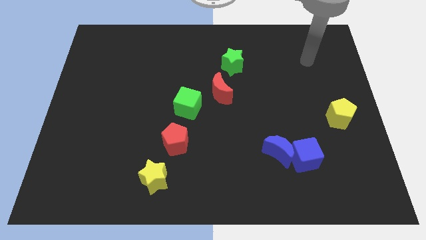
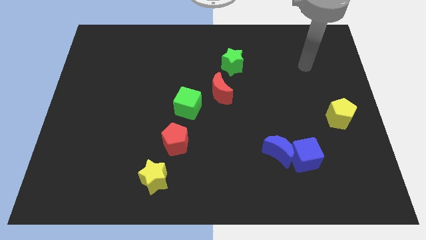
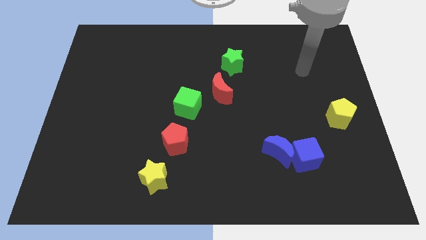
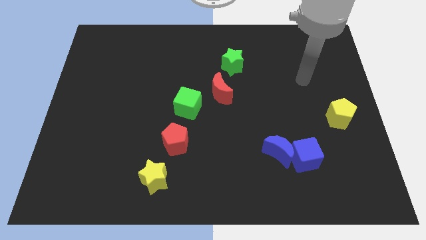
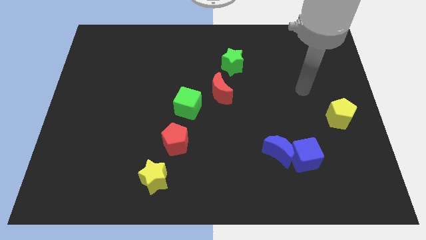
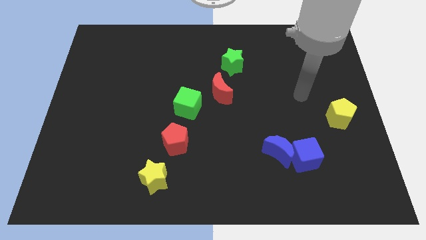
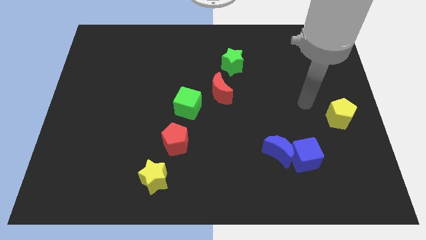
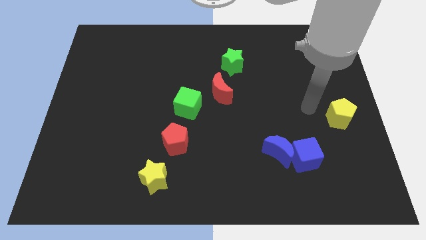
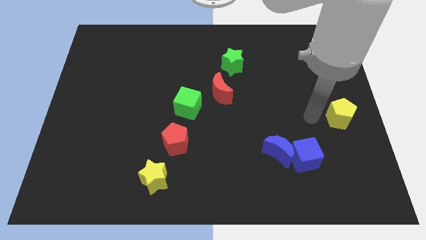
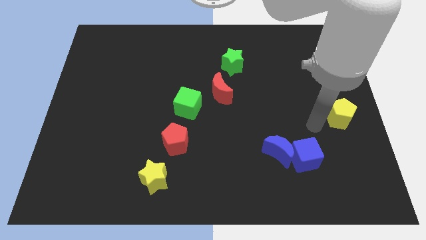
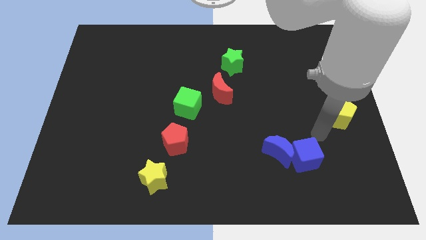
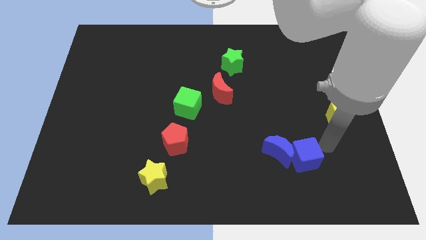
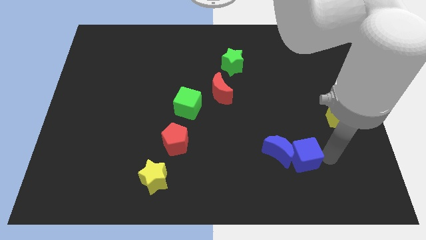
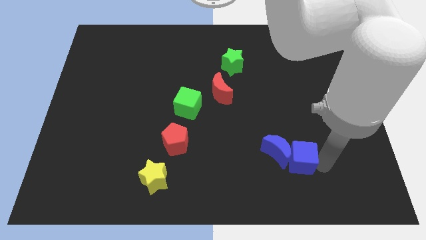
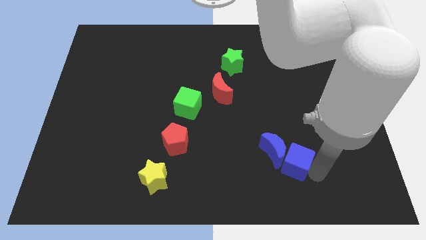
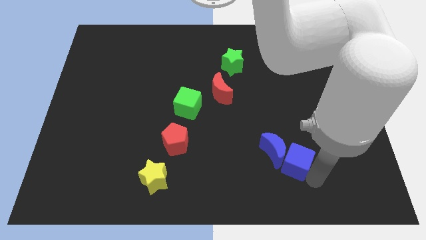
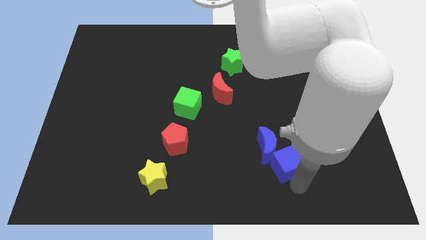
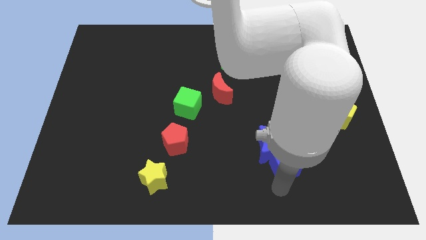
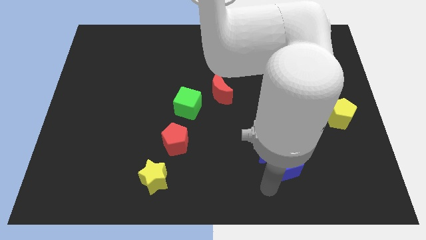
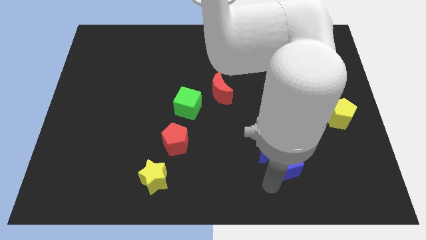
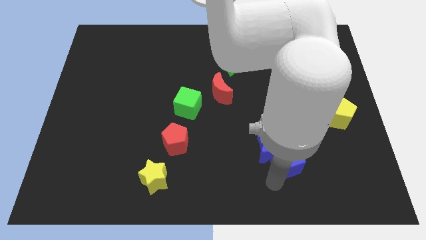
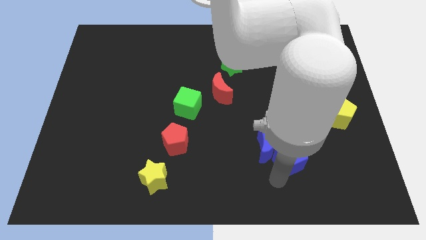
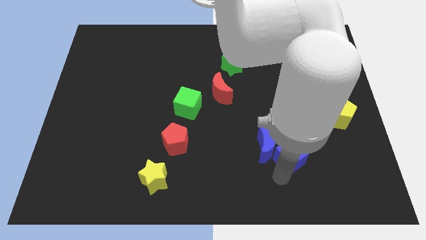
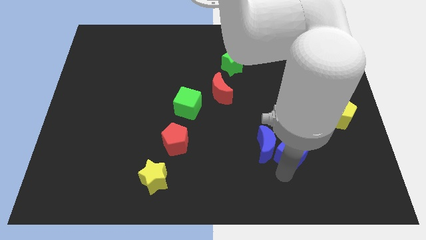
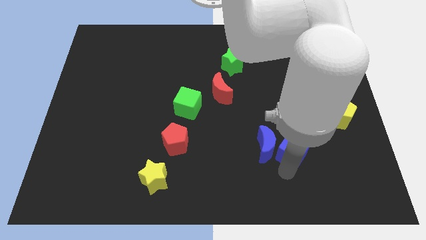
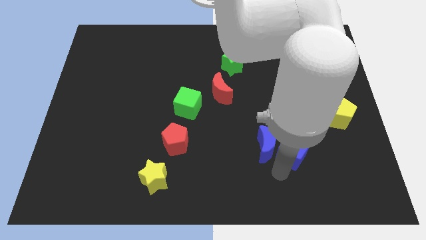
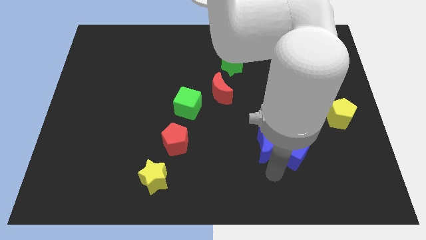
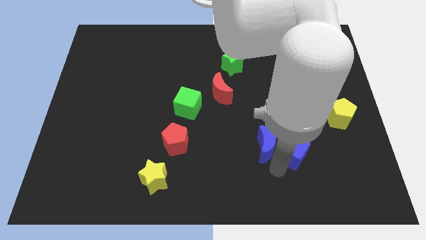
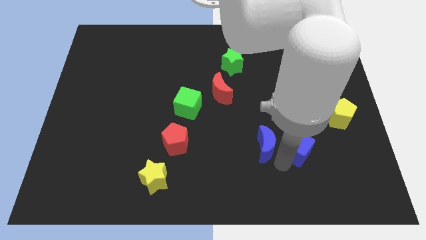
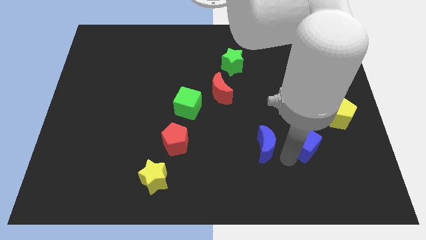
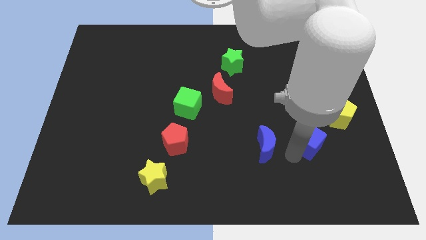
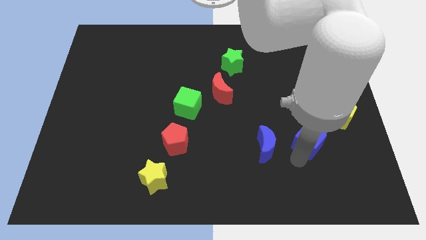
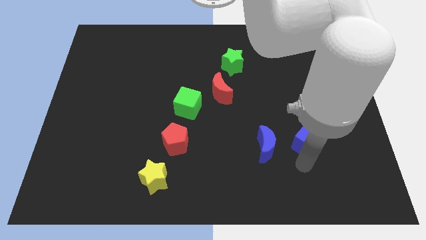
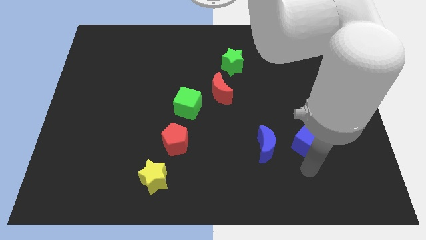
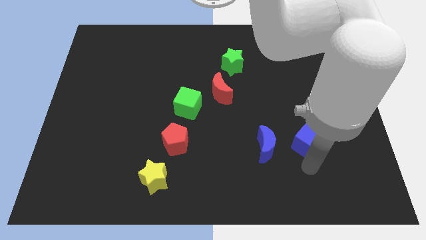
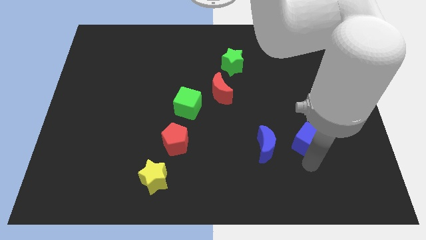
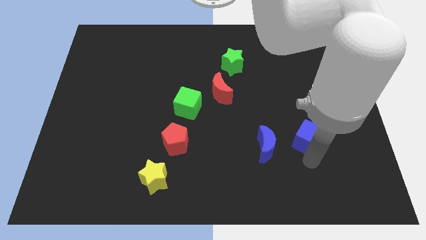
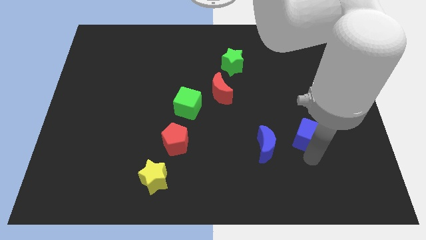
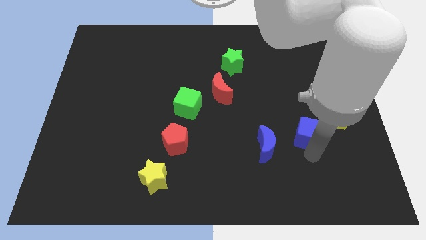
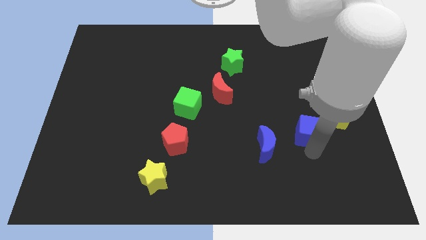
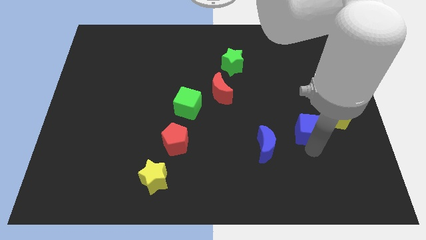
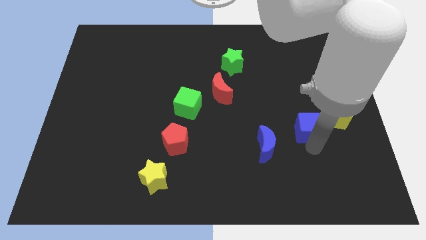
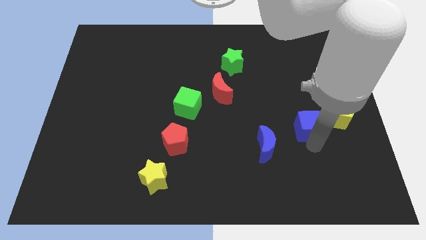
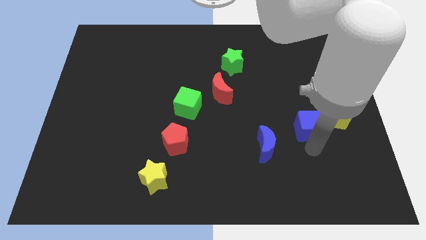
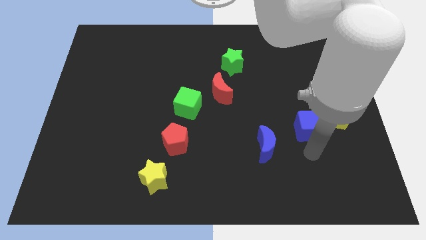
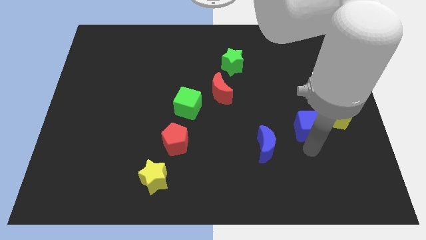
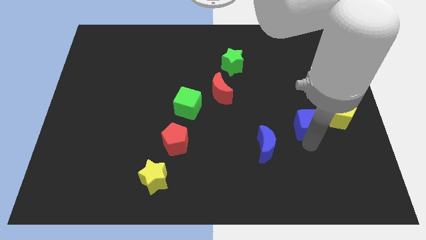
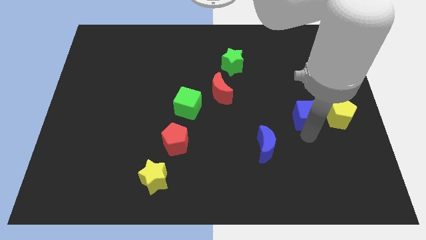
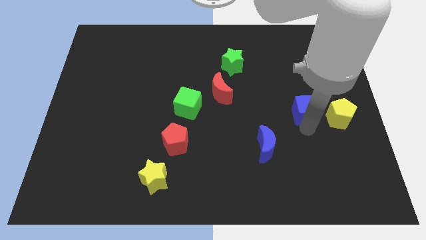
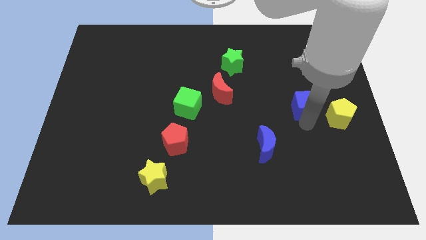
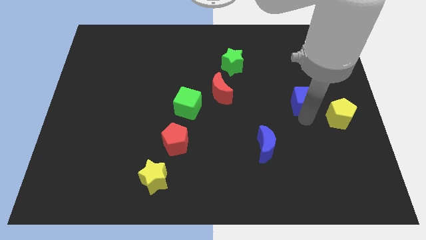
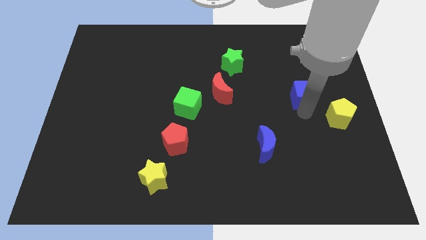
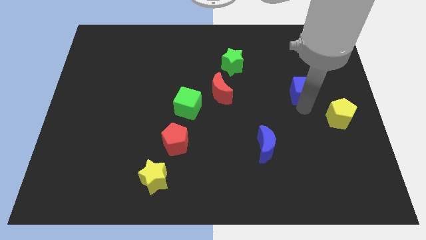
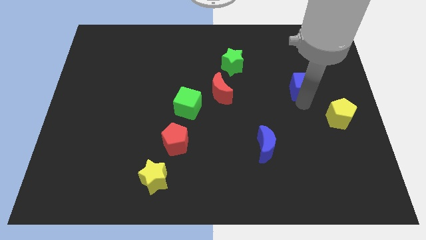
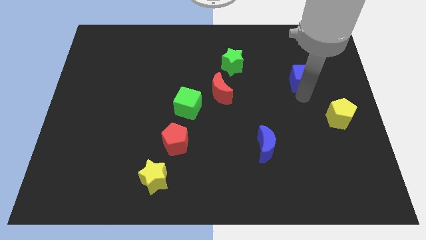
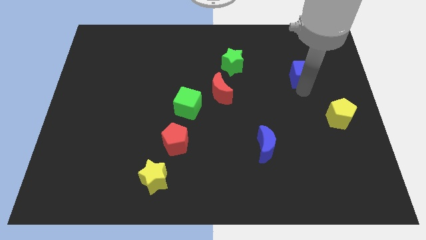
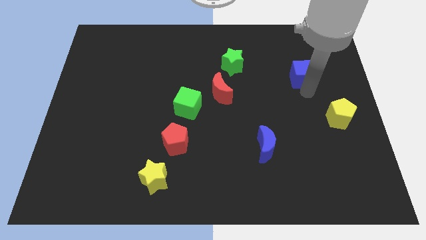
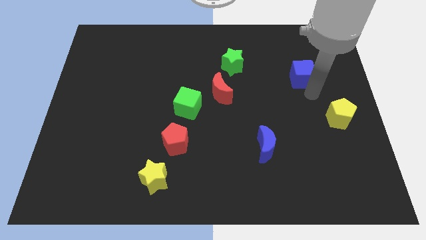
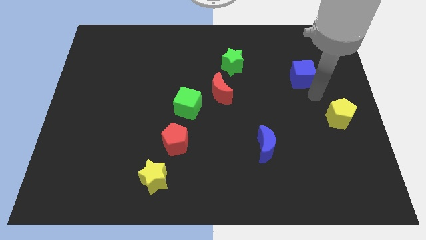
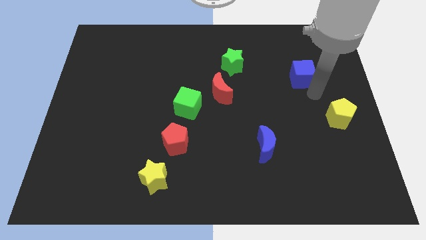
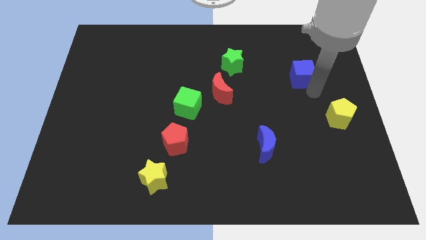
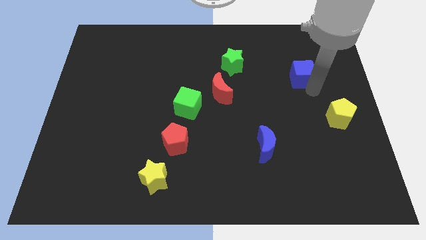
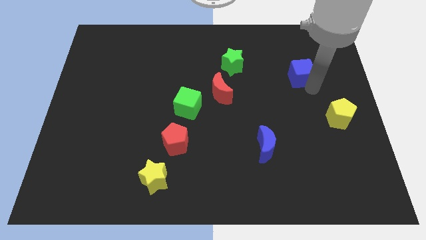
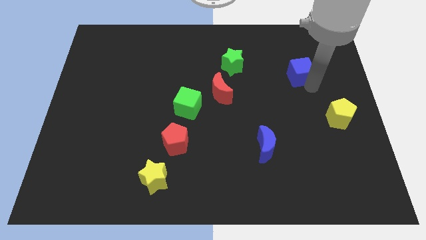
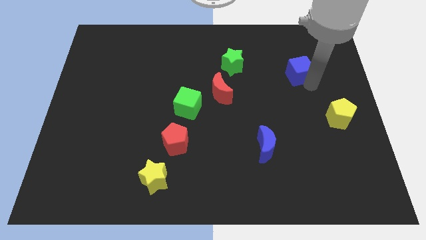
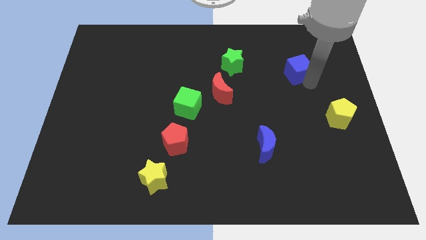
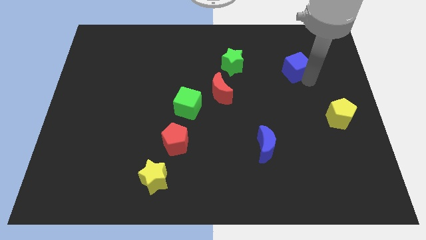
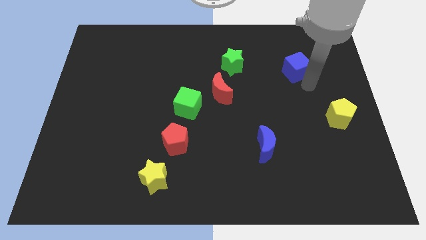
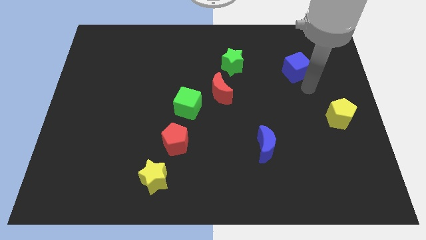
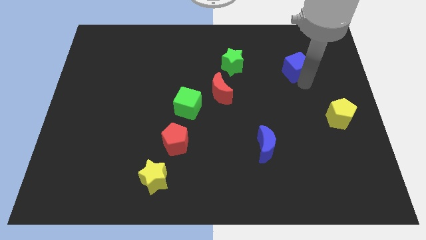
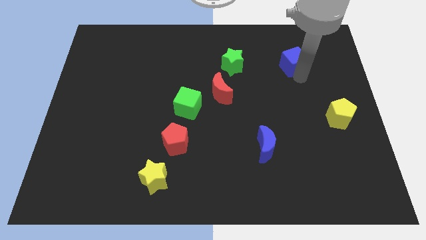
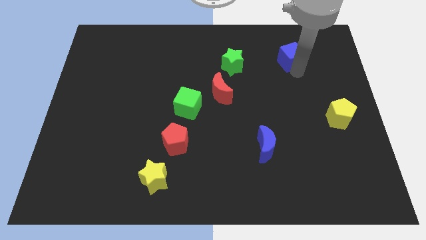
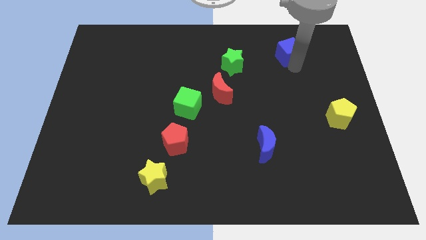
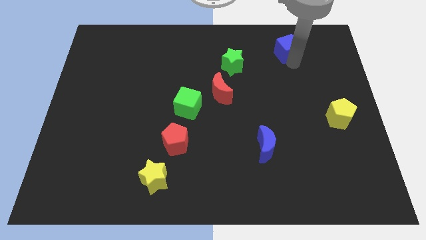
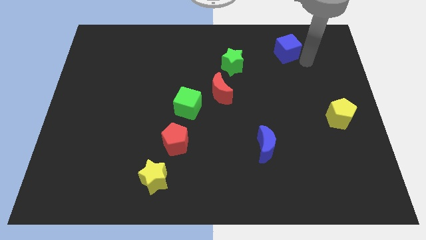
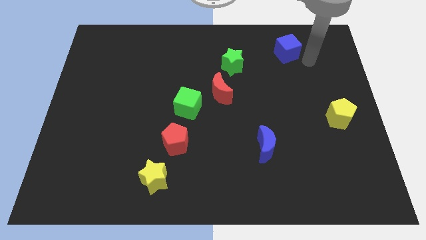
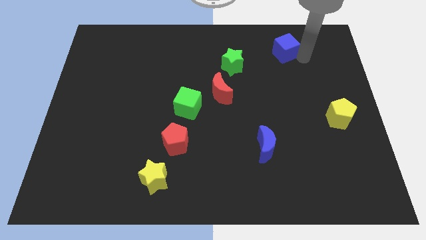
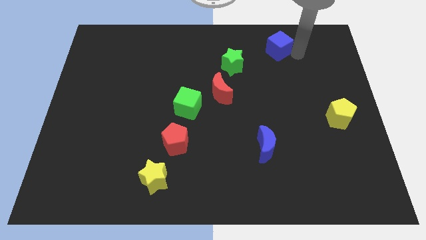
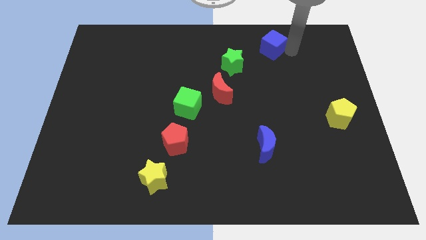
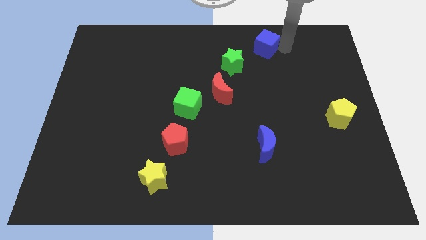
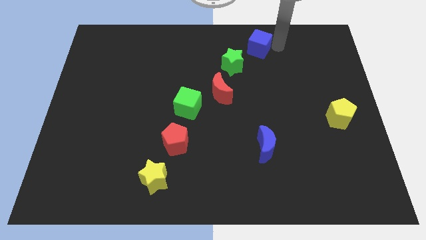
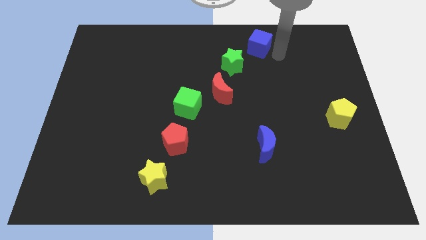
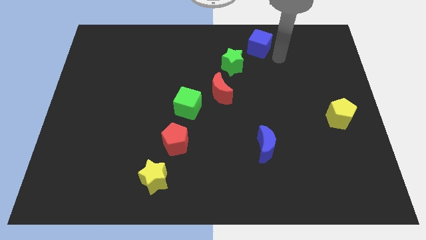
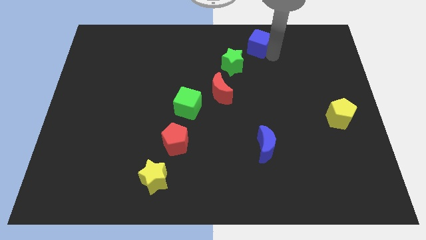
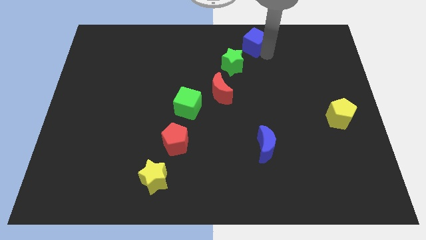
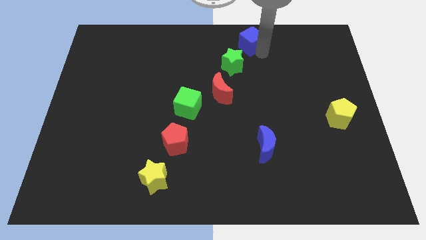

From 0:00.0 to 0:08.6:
move the blue cube to the top side
